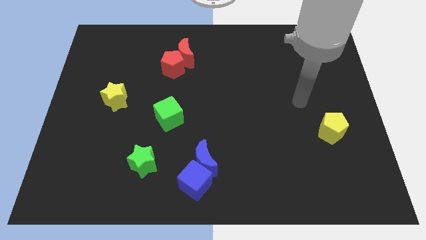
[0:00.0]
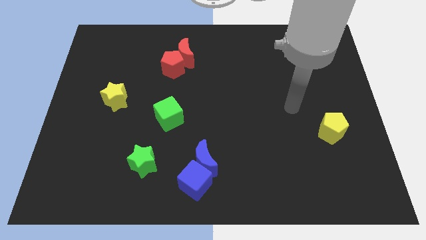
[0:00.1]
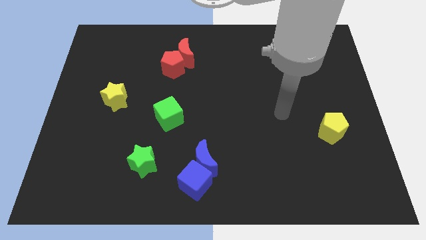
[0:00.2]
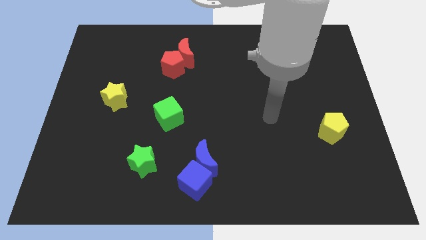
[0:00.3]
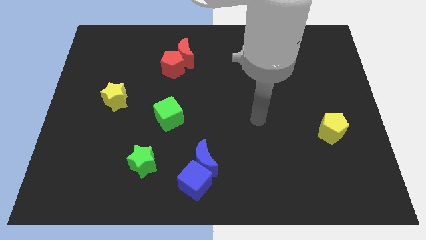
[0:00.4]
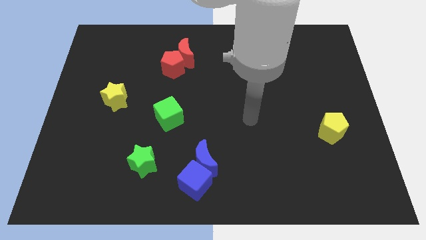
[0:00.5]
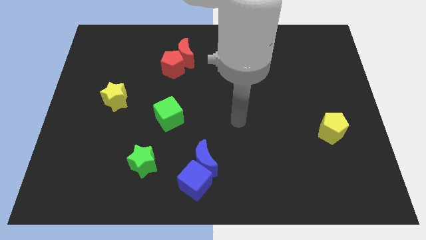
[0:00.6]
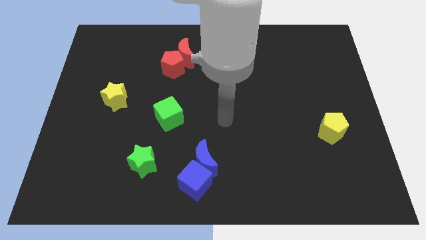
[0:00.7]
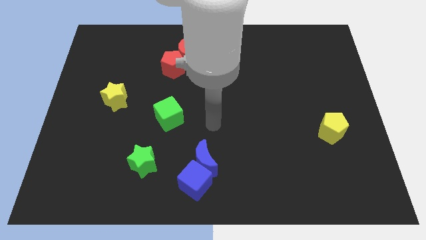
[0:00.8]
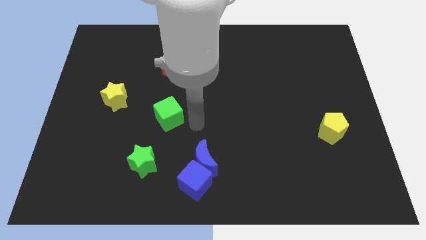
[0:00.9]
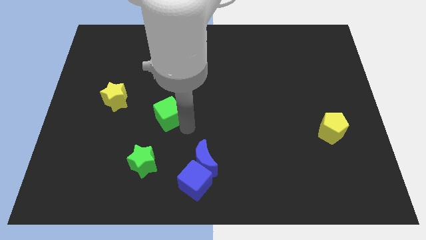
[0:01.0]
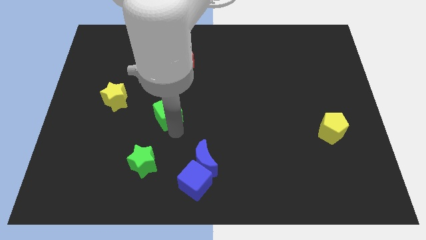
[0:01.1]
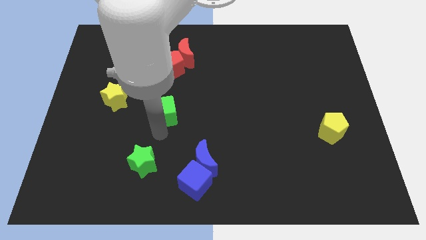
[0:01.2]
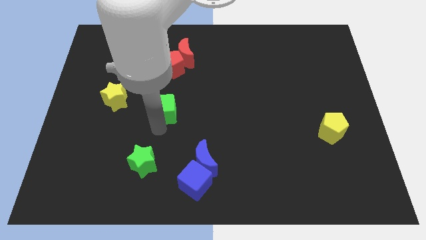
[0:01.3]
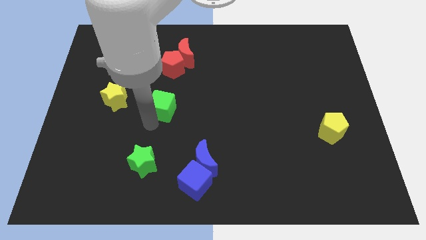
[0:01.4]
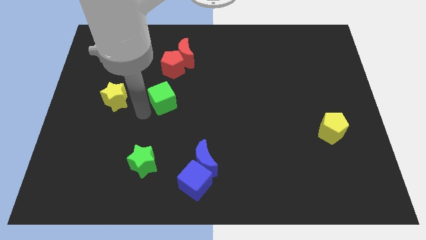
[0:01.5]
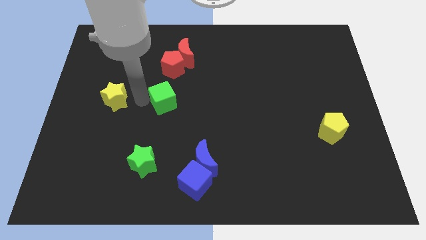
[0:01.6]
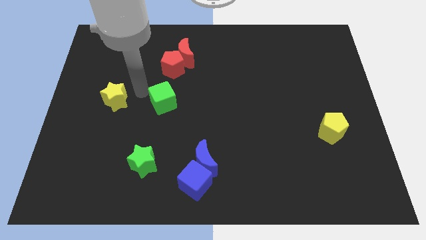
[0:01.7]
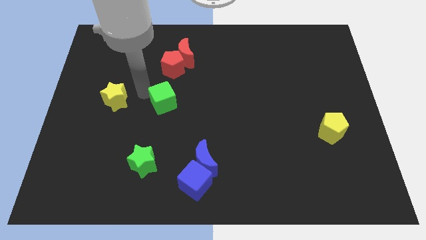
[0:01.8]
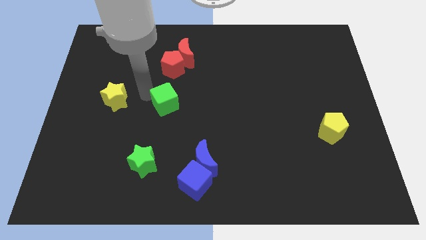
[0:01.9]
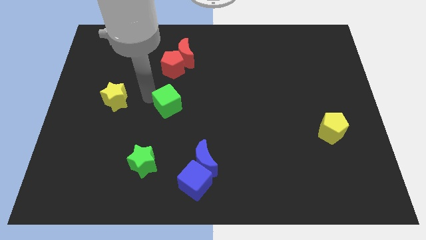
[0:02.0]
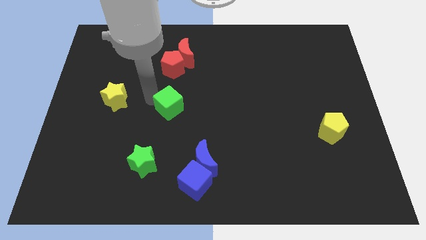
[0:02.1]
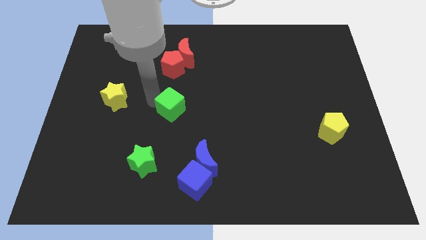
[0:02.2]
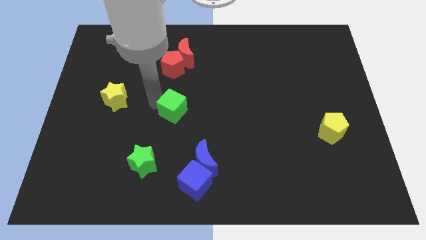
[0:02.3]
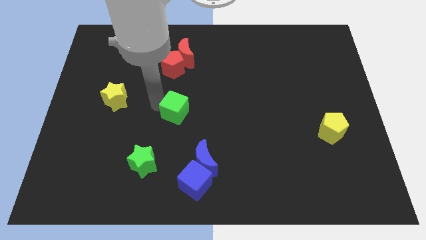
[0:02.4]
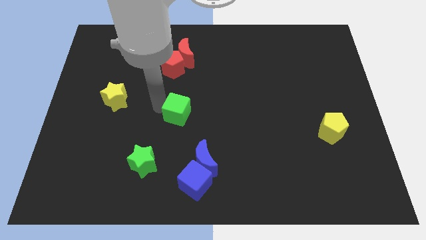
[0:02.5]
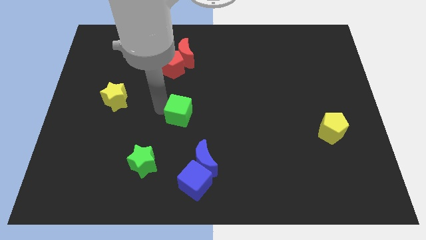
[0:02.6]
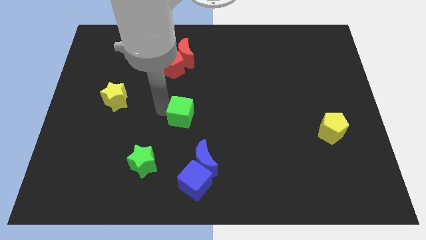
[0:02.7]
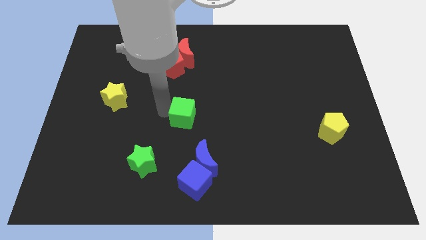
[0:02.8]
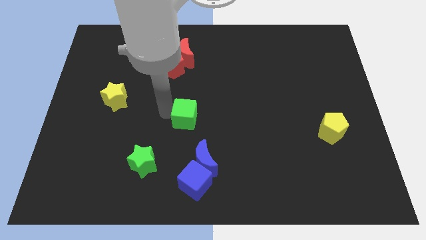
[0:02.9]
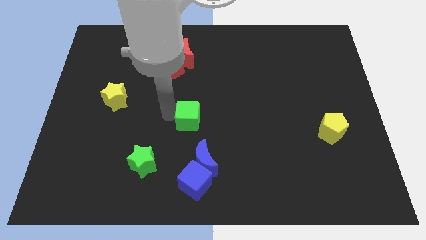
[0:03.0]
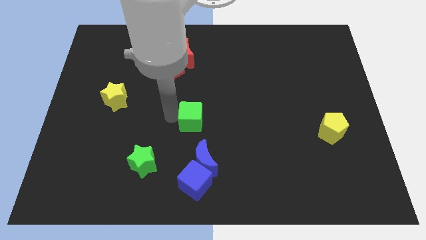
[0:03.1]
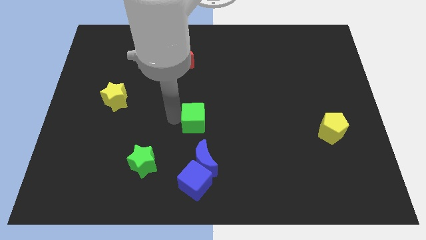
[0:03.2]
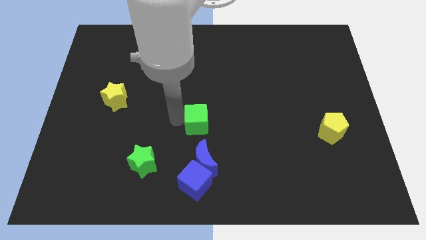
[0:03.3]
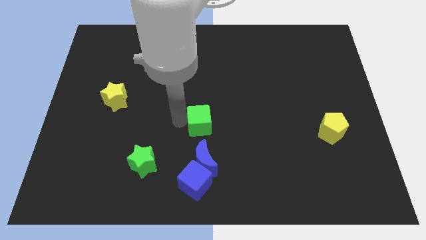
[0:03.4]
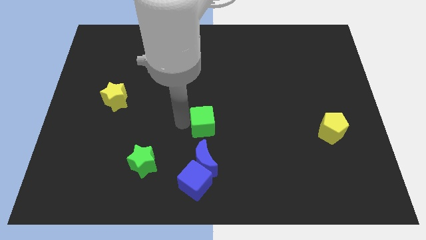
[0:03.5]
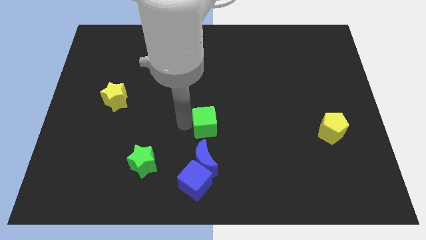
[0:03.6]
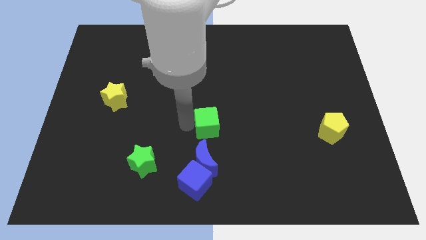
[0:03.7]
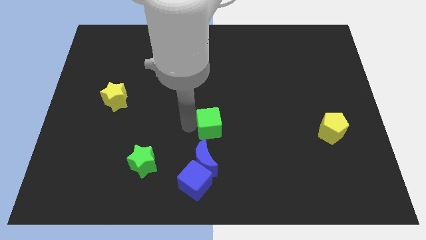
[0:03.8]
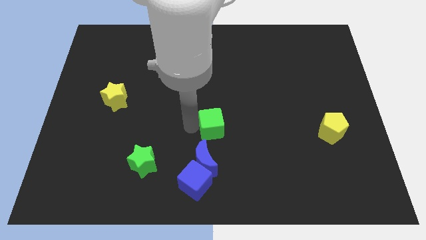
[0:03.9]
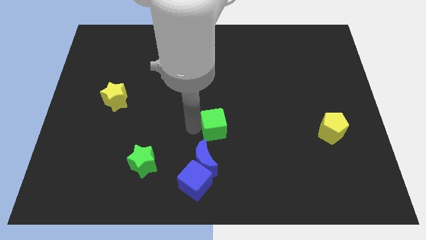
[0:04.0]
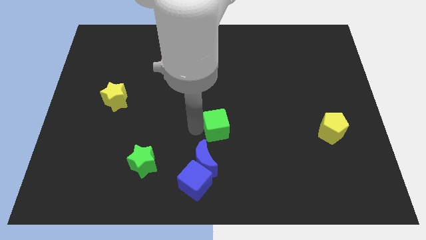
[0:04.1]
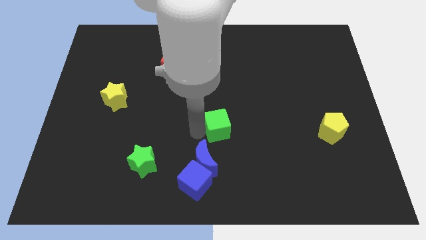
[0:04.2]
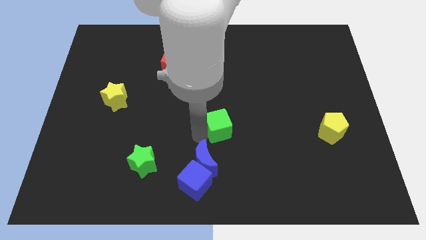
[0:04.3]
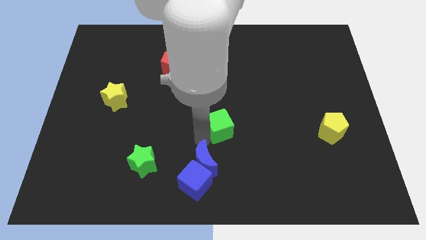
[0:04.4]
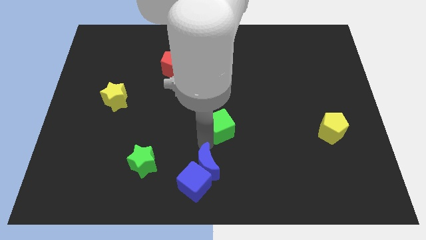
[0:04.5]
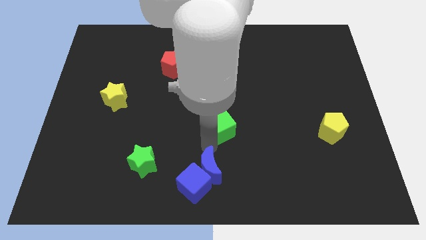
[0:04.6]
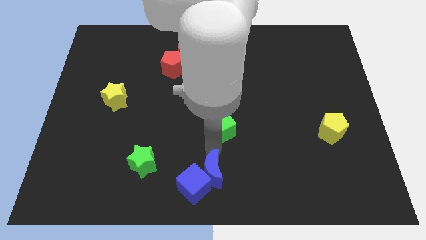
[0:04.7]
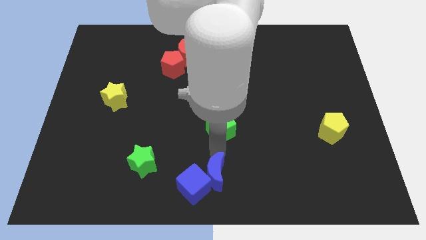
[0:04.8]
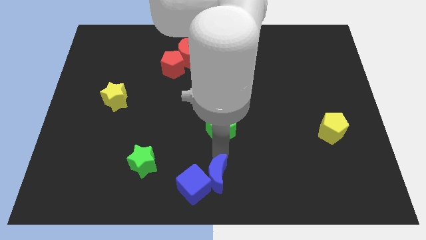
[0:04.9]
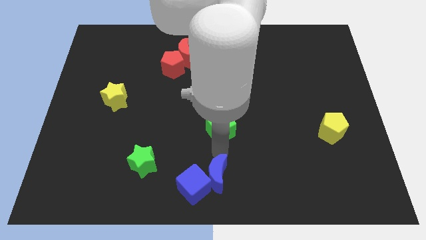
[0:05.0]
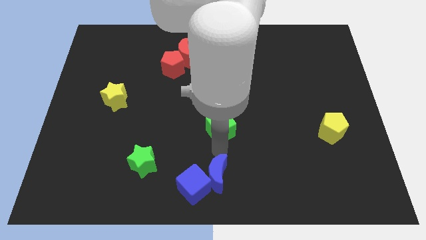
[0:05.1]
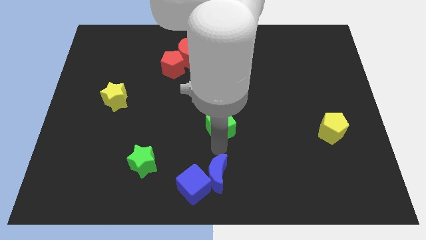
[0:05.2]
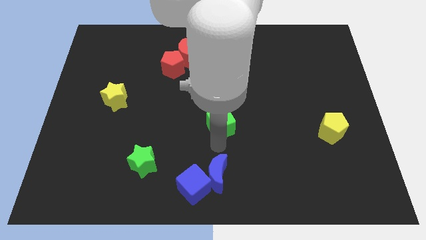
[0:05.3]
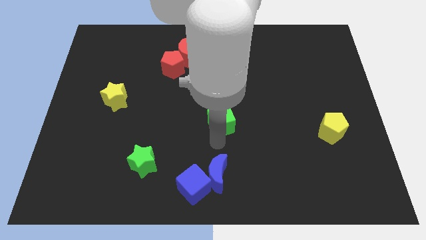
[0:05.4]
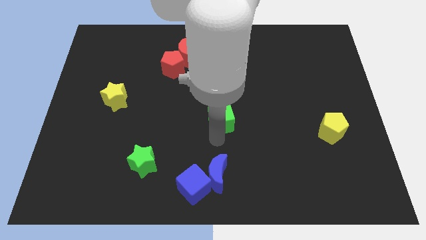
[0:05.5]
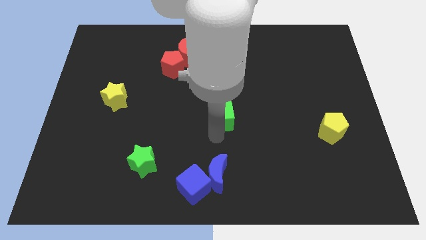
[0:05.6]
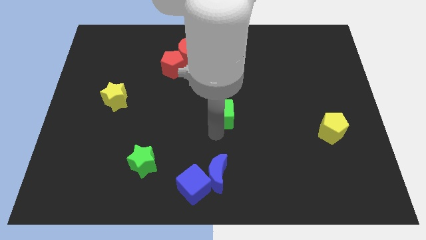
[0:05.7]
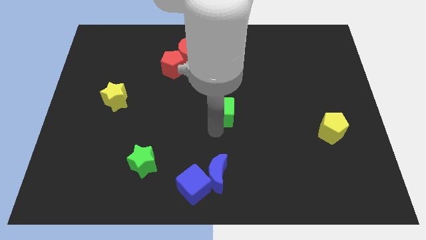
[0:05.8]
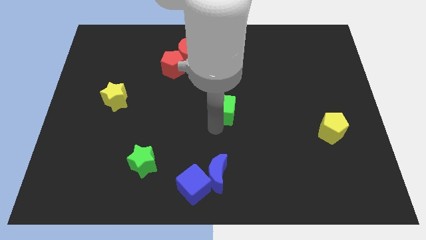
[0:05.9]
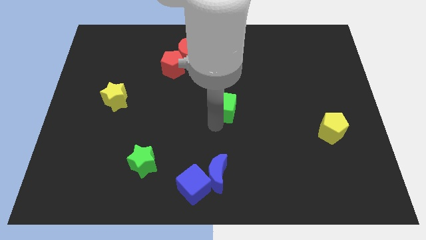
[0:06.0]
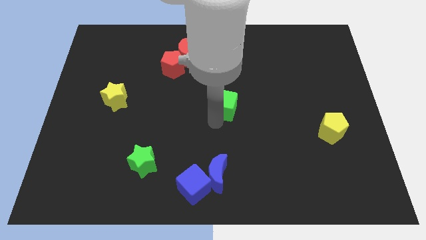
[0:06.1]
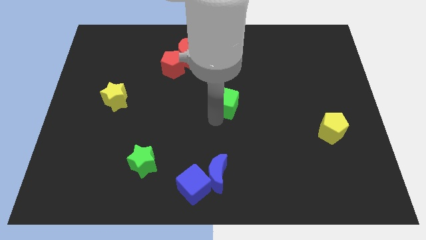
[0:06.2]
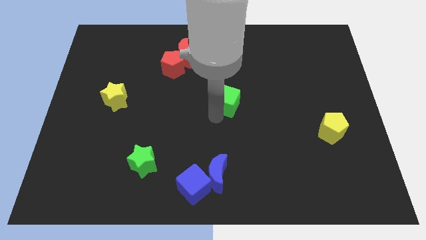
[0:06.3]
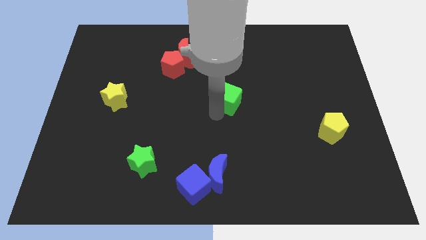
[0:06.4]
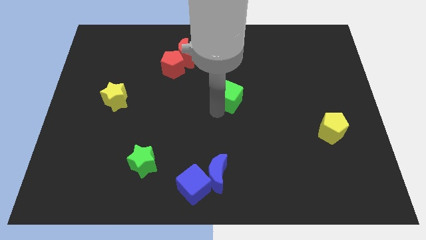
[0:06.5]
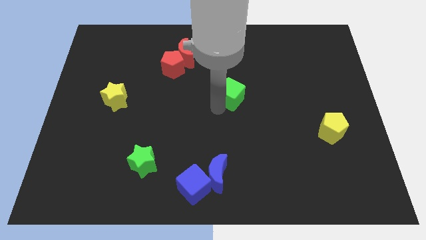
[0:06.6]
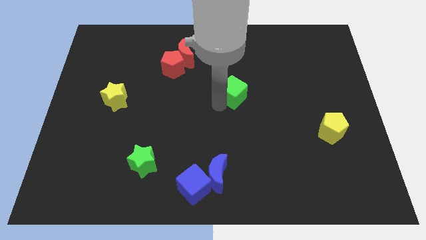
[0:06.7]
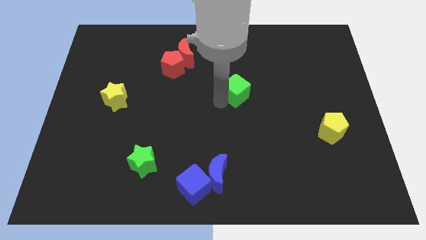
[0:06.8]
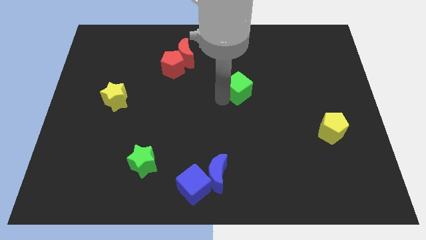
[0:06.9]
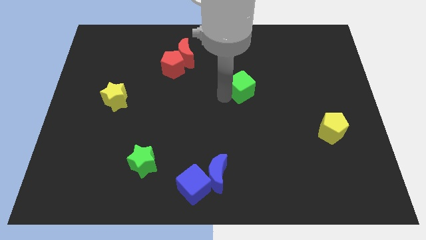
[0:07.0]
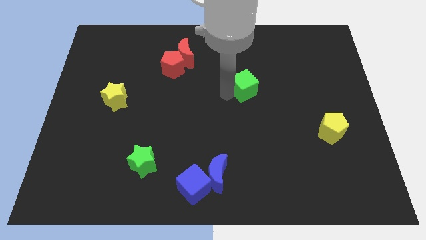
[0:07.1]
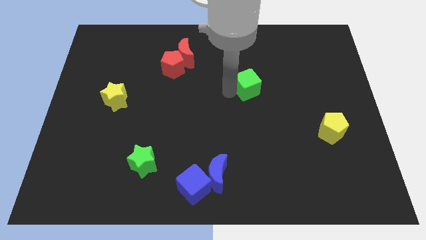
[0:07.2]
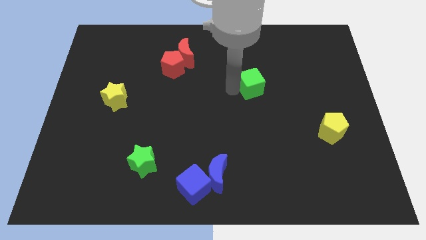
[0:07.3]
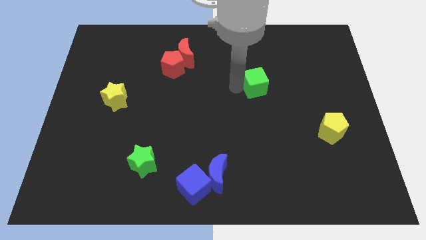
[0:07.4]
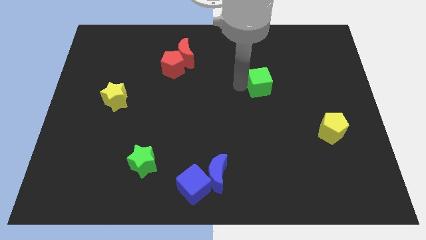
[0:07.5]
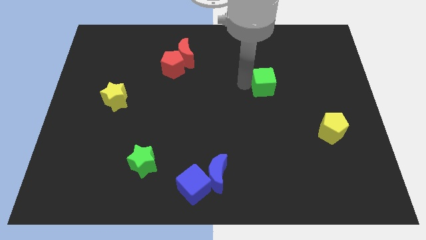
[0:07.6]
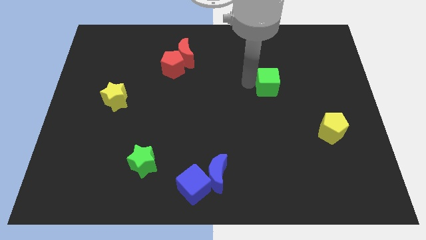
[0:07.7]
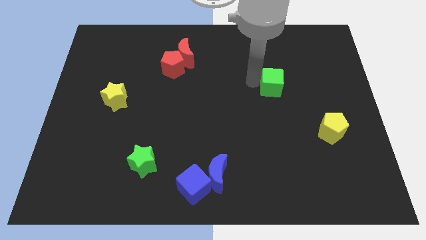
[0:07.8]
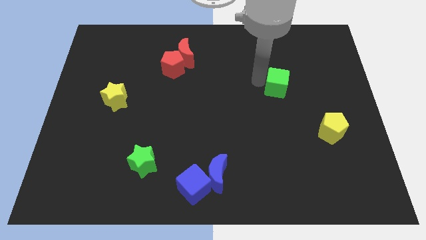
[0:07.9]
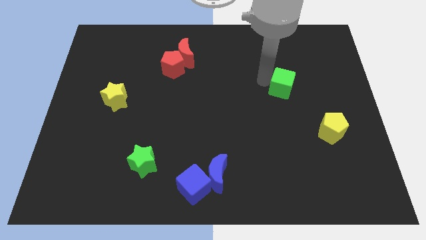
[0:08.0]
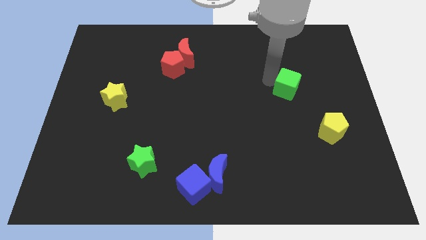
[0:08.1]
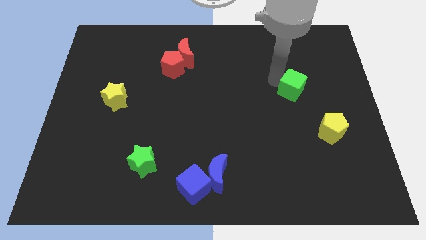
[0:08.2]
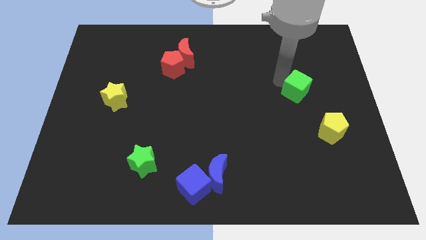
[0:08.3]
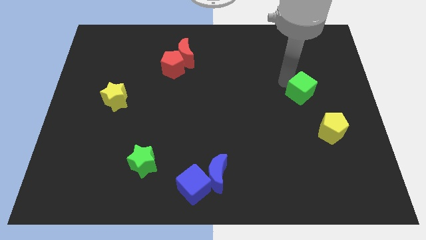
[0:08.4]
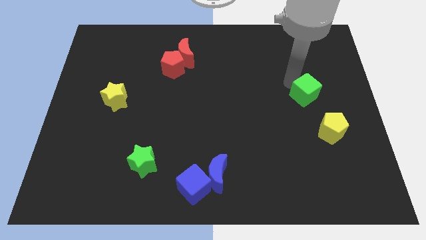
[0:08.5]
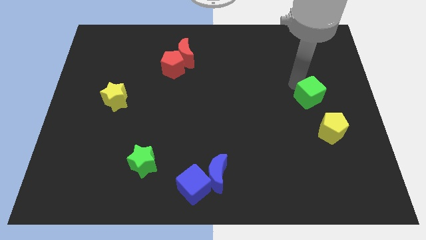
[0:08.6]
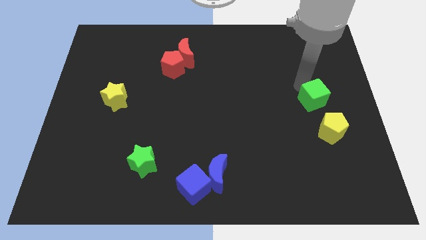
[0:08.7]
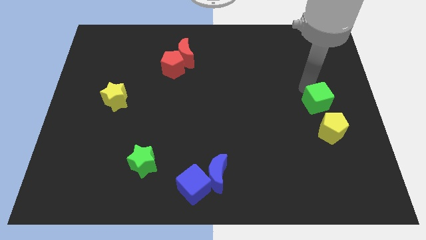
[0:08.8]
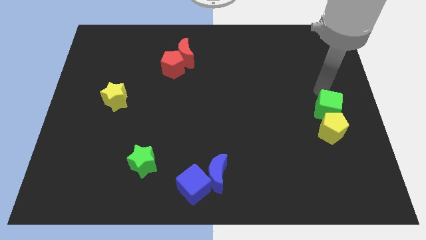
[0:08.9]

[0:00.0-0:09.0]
move the green cube to the yellow pentagon
